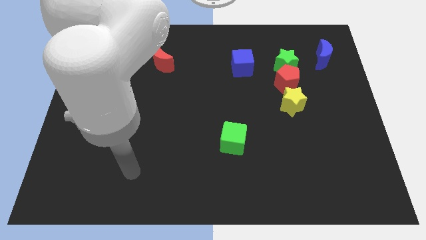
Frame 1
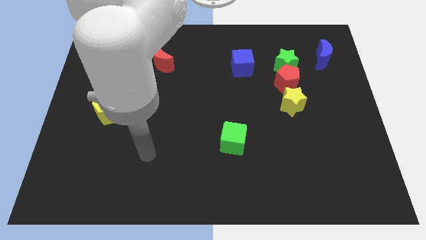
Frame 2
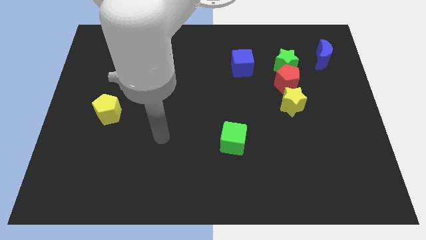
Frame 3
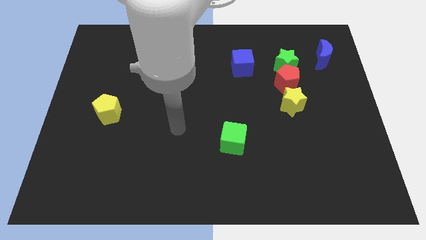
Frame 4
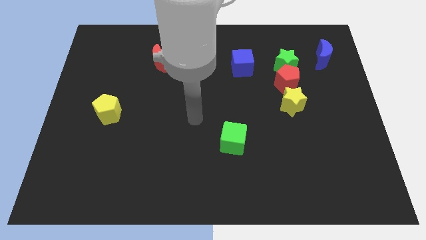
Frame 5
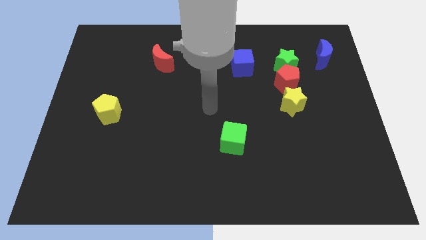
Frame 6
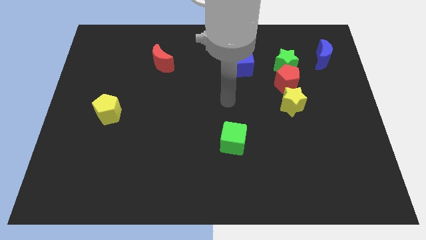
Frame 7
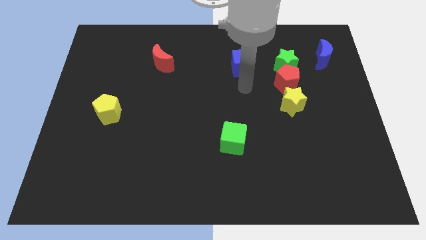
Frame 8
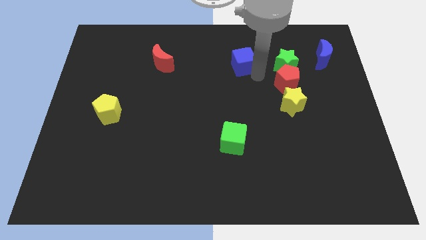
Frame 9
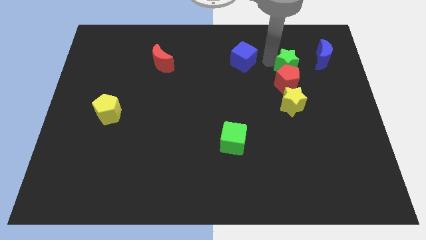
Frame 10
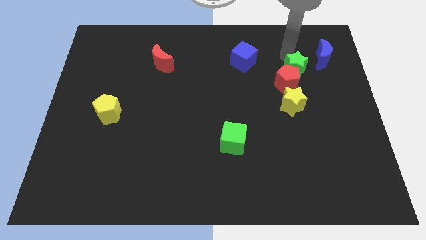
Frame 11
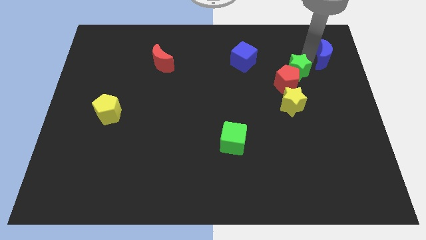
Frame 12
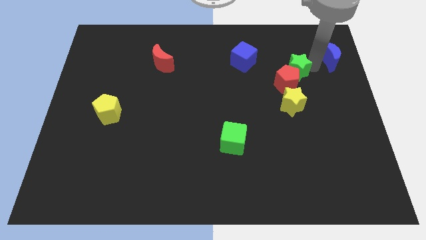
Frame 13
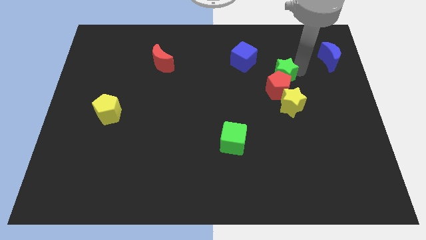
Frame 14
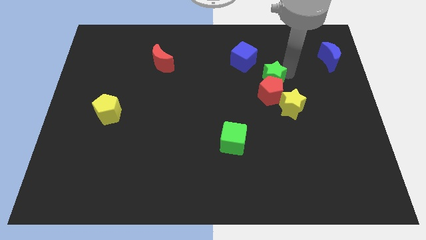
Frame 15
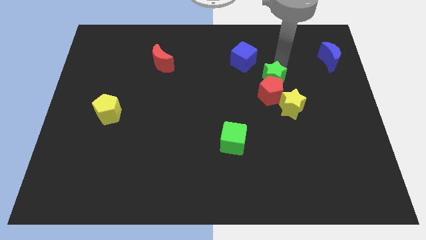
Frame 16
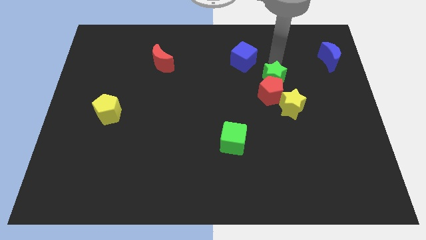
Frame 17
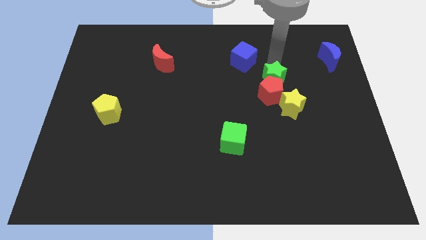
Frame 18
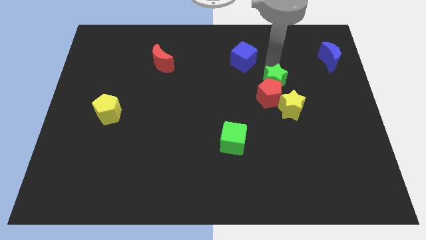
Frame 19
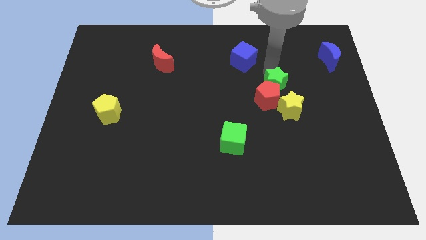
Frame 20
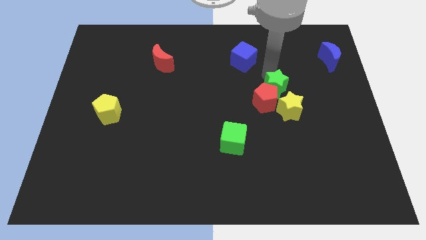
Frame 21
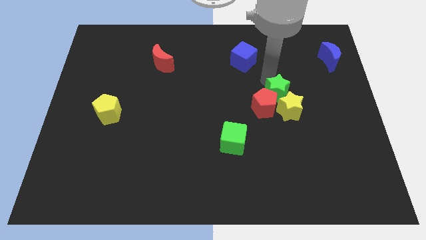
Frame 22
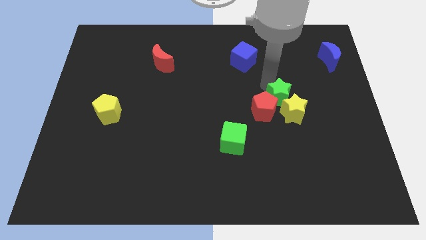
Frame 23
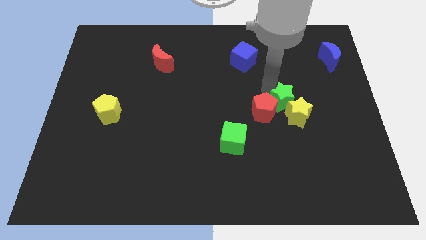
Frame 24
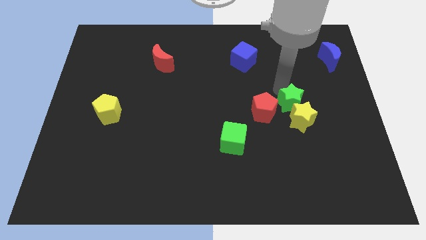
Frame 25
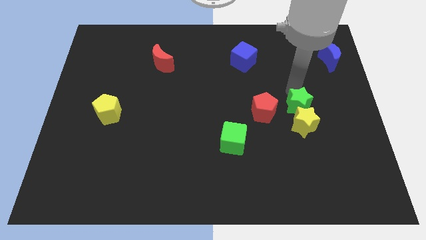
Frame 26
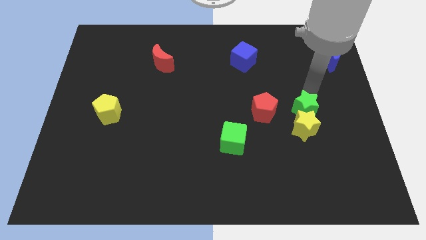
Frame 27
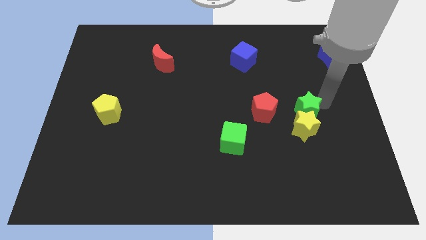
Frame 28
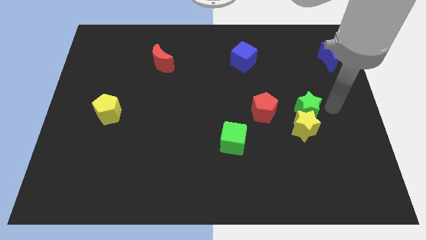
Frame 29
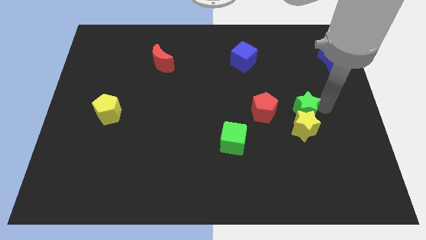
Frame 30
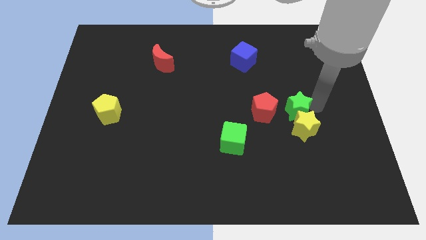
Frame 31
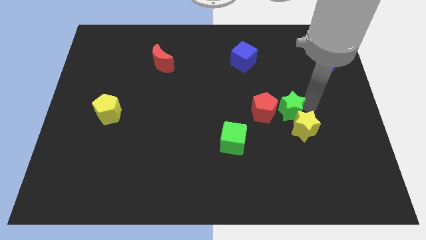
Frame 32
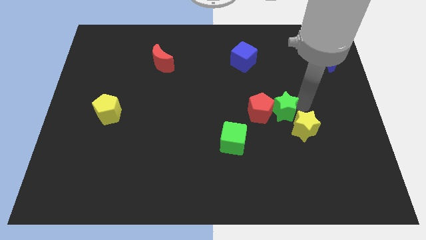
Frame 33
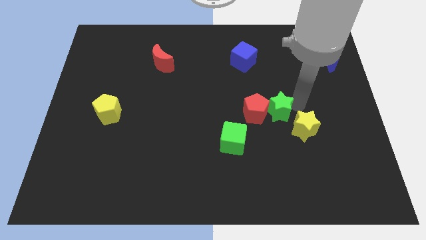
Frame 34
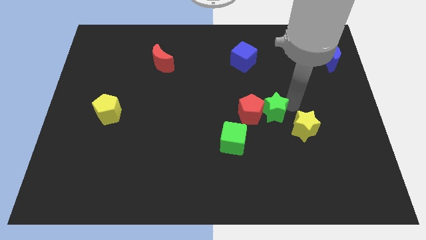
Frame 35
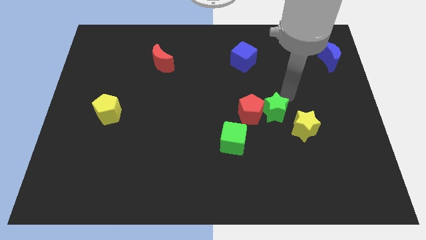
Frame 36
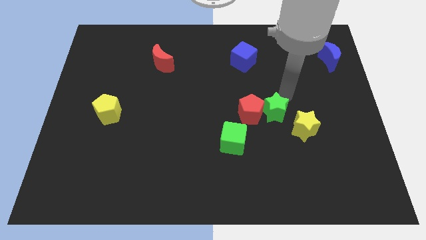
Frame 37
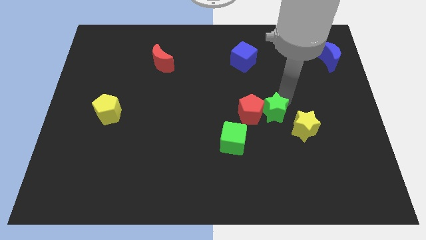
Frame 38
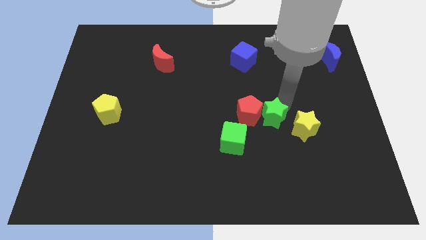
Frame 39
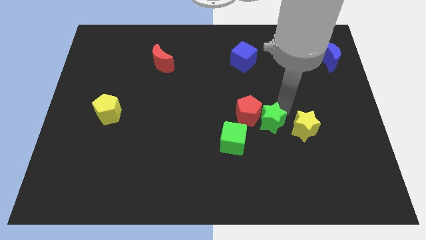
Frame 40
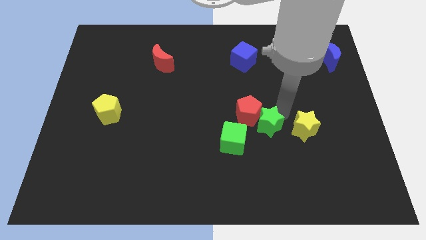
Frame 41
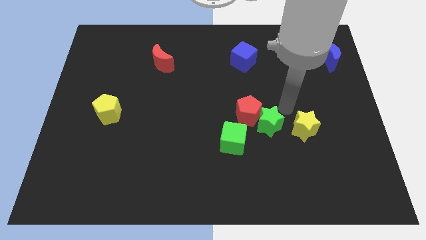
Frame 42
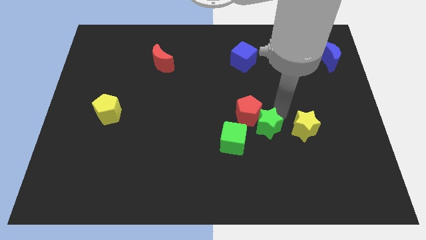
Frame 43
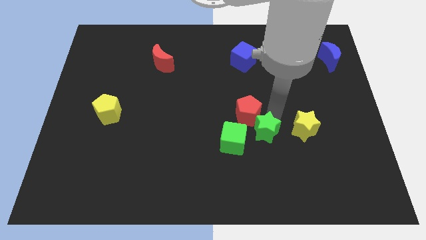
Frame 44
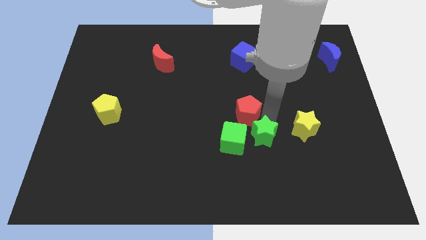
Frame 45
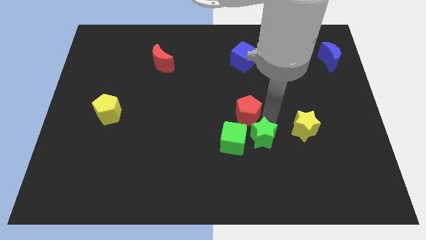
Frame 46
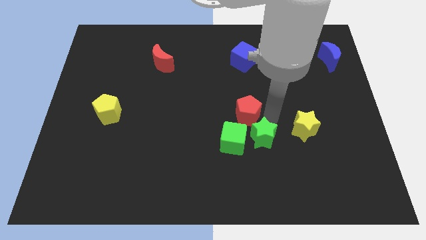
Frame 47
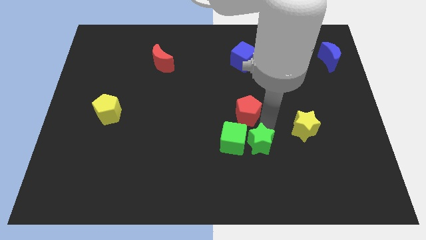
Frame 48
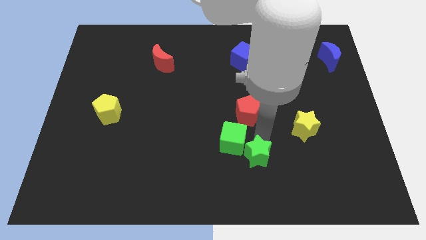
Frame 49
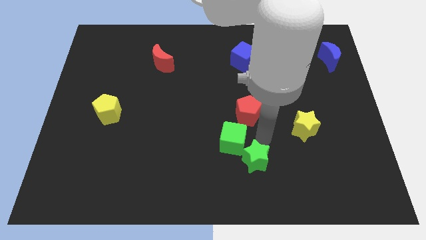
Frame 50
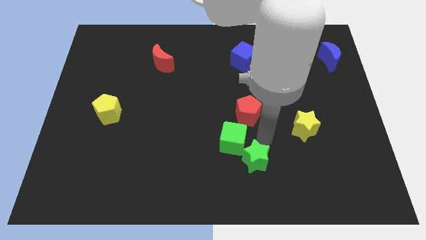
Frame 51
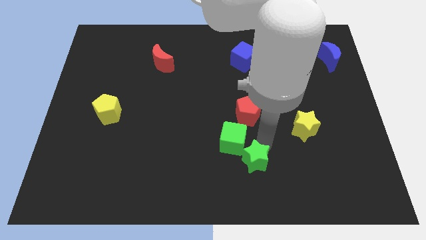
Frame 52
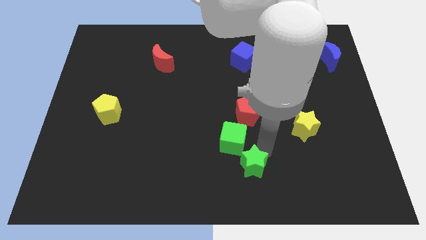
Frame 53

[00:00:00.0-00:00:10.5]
push the green star to the bottom
